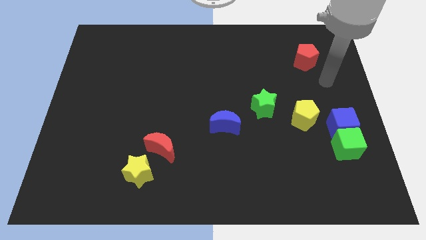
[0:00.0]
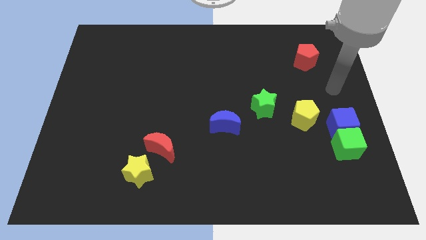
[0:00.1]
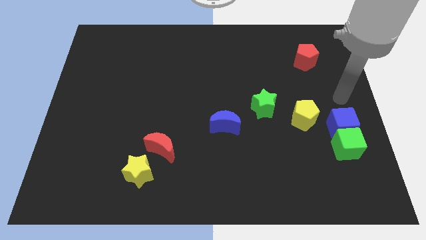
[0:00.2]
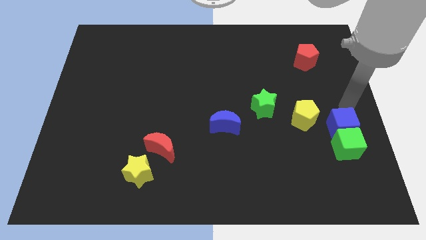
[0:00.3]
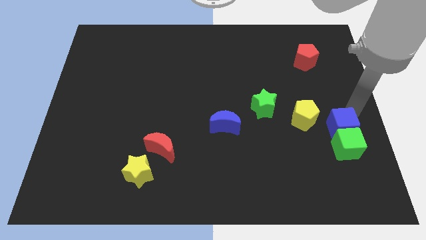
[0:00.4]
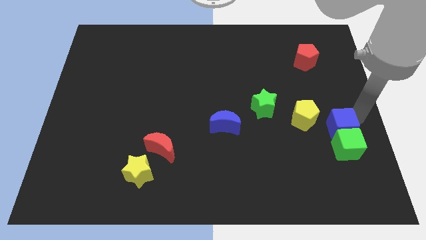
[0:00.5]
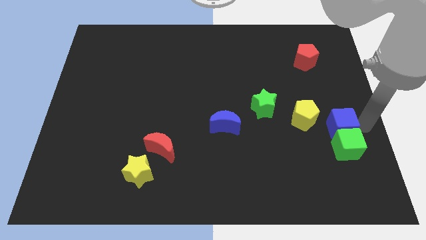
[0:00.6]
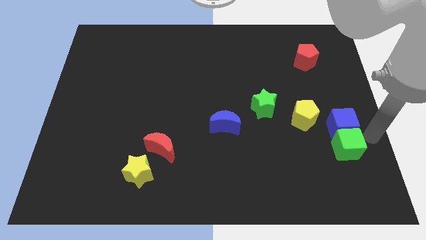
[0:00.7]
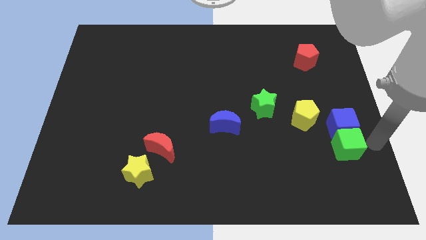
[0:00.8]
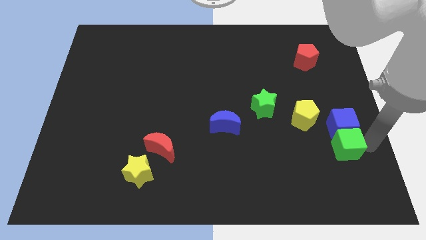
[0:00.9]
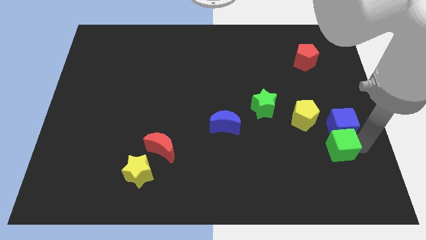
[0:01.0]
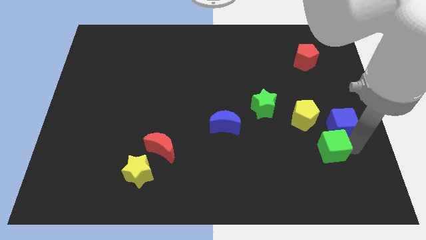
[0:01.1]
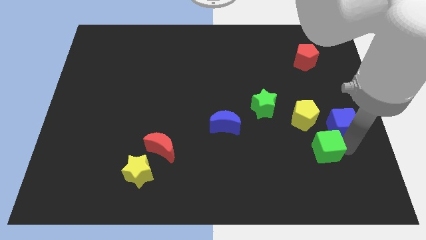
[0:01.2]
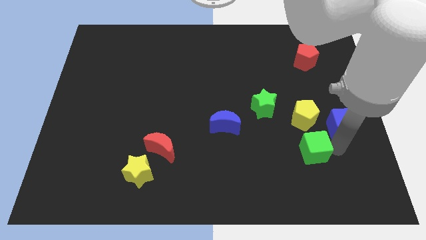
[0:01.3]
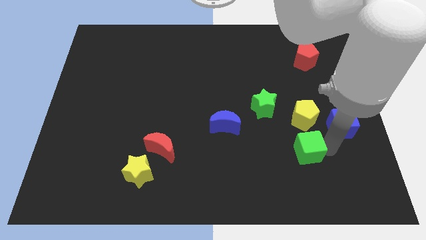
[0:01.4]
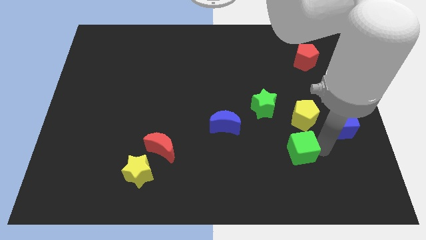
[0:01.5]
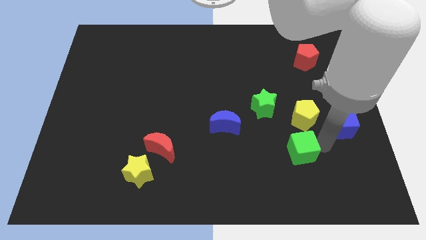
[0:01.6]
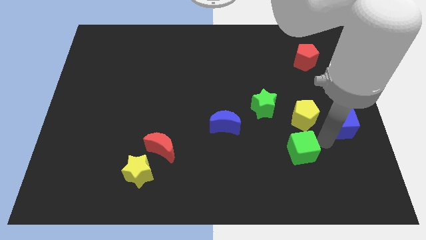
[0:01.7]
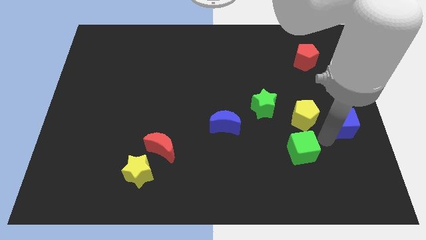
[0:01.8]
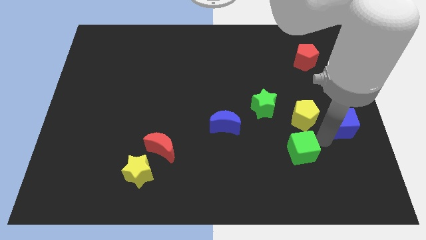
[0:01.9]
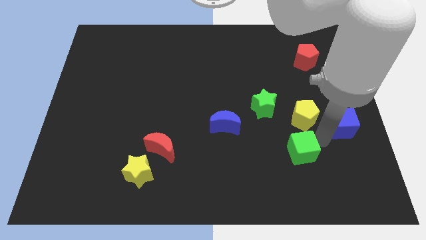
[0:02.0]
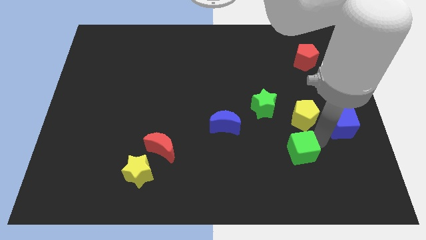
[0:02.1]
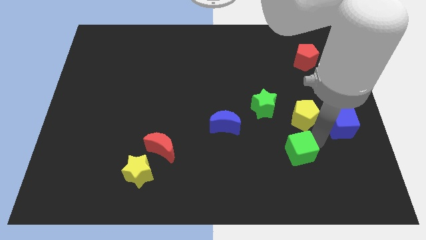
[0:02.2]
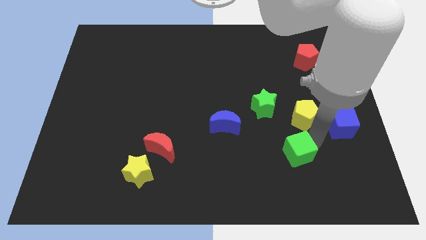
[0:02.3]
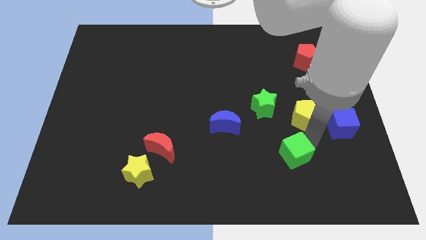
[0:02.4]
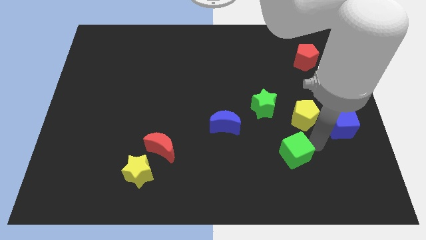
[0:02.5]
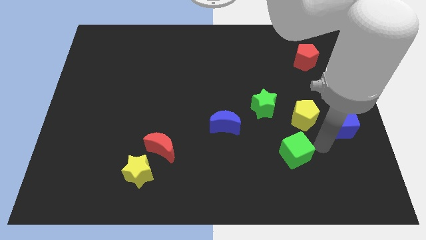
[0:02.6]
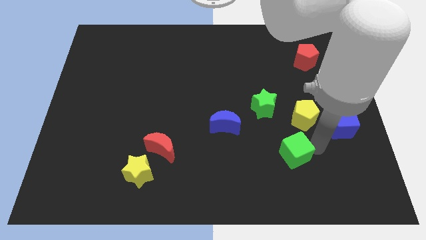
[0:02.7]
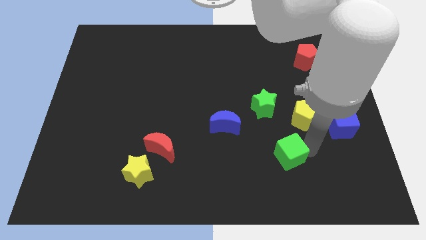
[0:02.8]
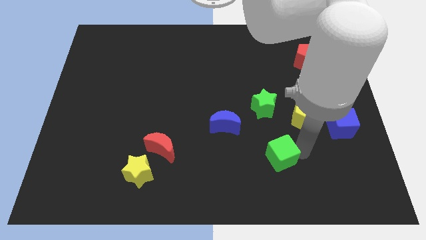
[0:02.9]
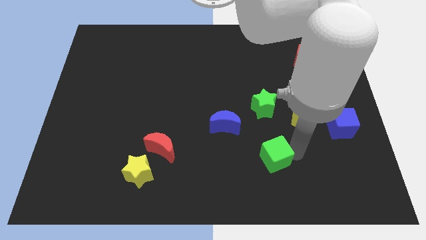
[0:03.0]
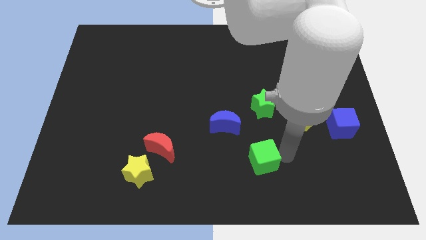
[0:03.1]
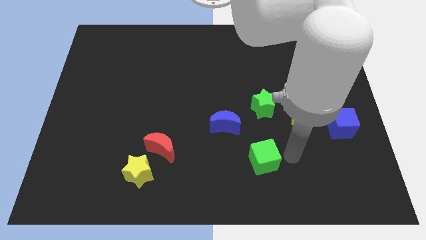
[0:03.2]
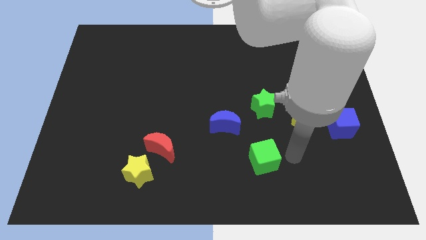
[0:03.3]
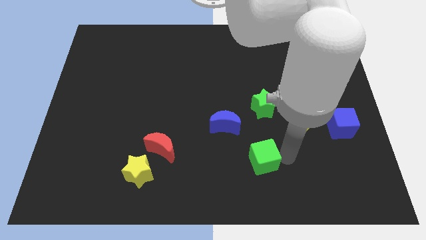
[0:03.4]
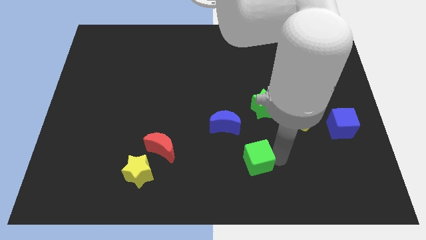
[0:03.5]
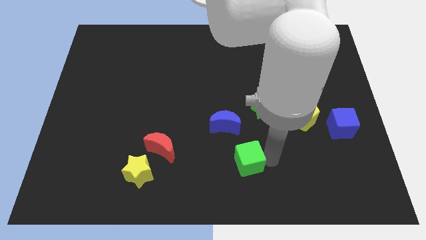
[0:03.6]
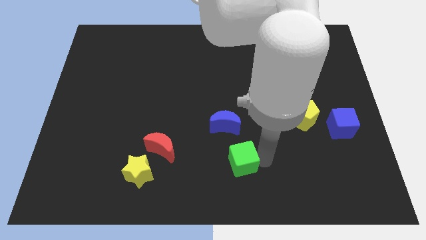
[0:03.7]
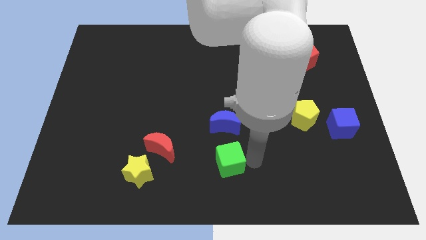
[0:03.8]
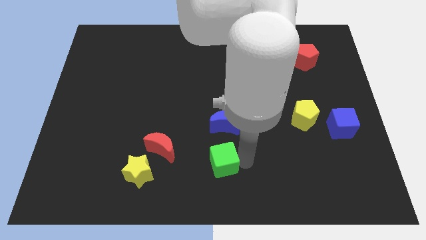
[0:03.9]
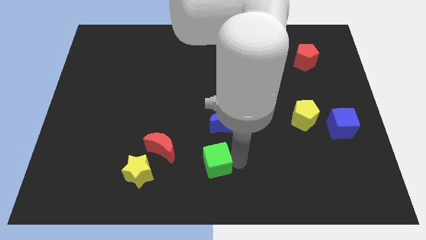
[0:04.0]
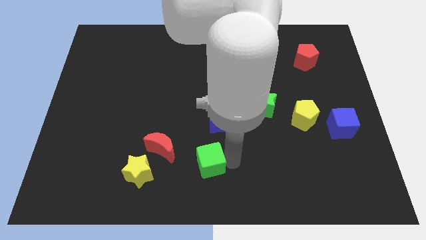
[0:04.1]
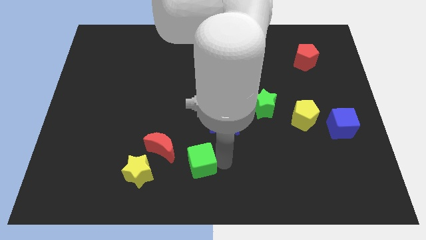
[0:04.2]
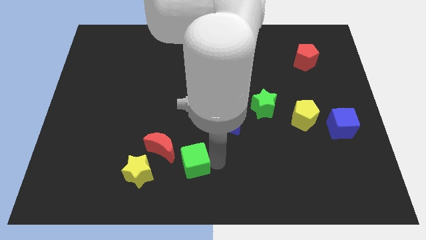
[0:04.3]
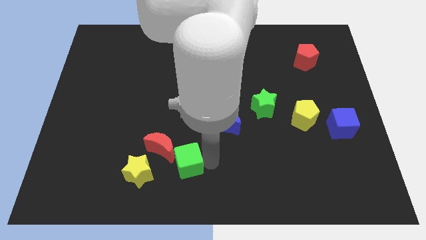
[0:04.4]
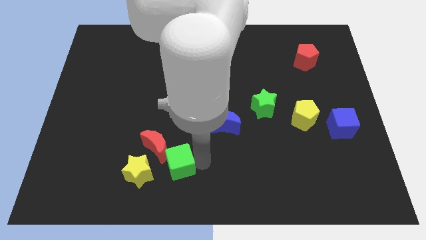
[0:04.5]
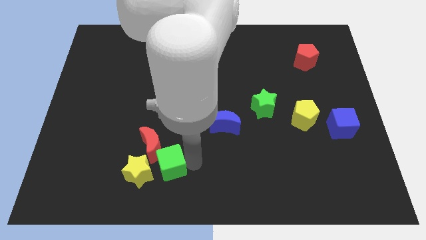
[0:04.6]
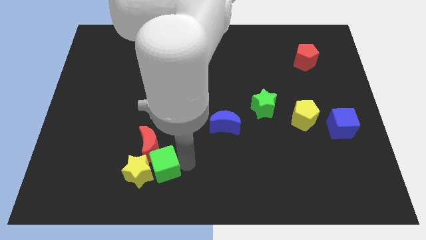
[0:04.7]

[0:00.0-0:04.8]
move the green cube close to the yellow star

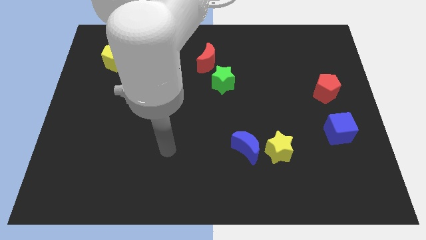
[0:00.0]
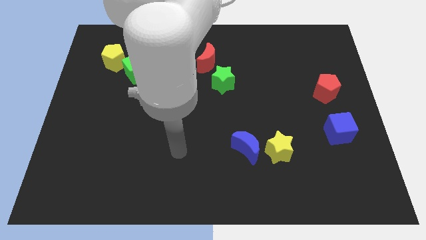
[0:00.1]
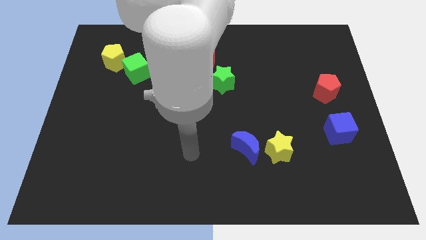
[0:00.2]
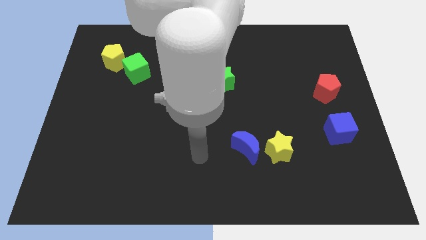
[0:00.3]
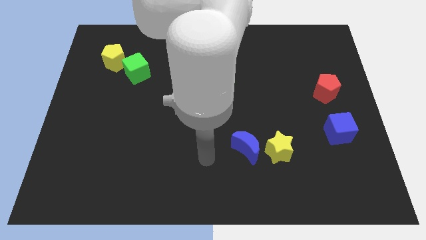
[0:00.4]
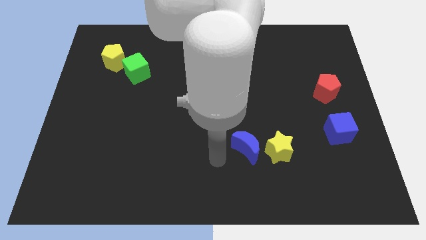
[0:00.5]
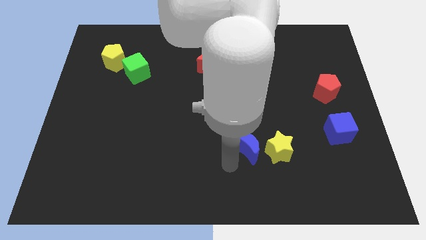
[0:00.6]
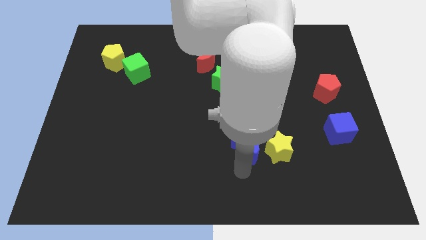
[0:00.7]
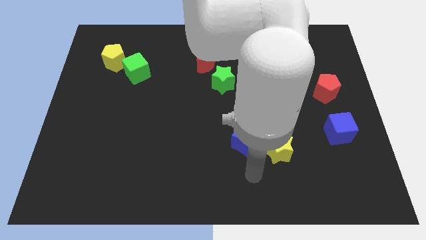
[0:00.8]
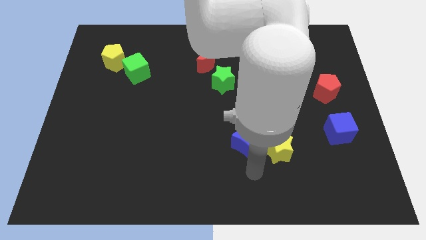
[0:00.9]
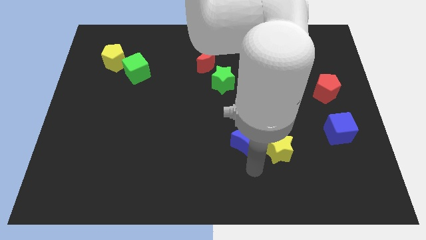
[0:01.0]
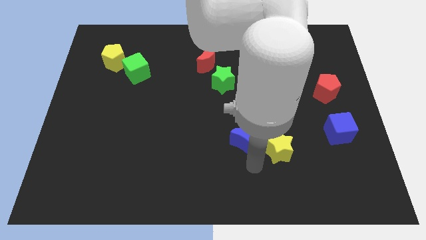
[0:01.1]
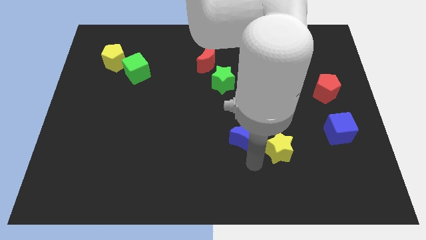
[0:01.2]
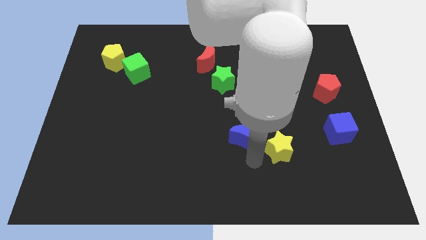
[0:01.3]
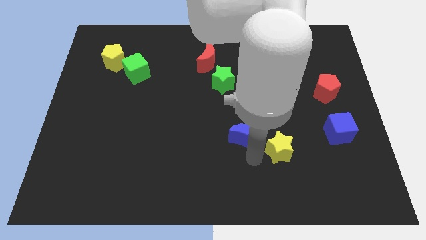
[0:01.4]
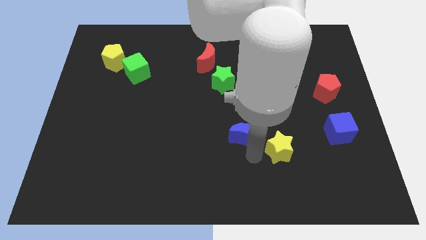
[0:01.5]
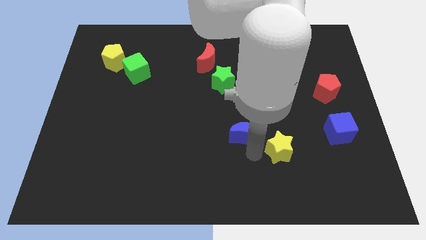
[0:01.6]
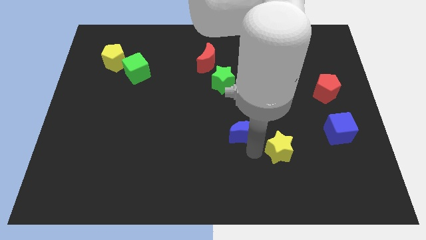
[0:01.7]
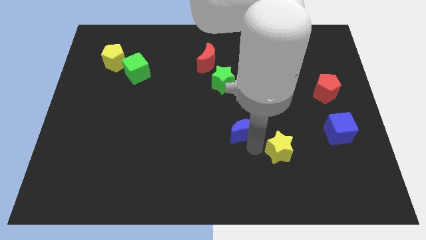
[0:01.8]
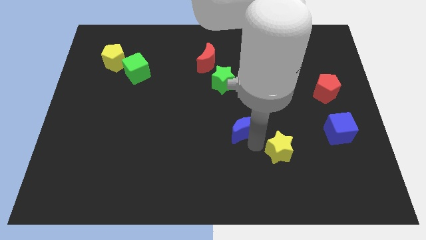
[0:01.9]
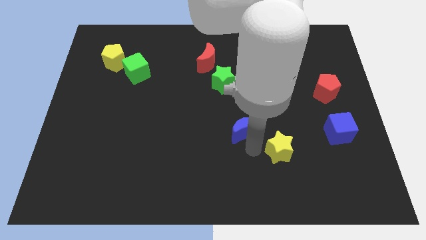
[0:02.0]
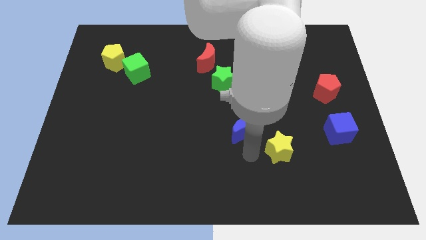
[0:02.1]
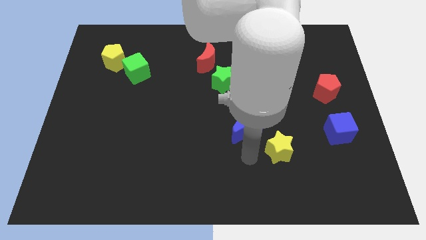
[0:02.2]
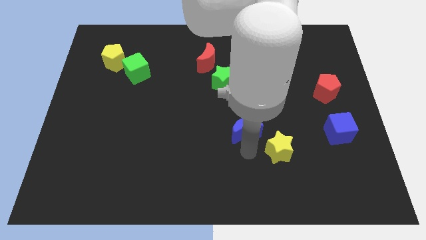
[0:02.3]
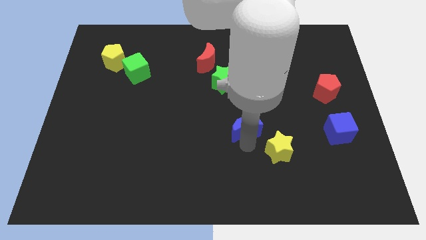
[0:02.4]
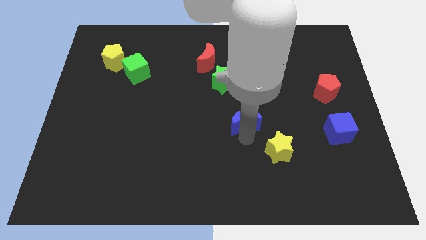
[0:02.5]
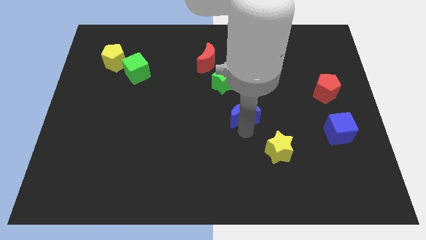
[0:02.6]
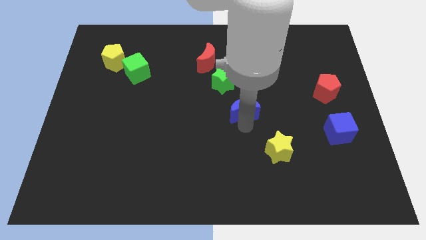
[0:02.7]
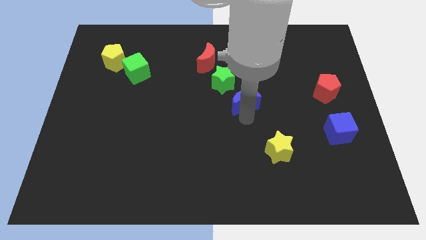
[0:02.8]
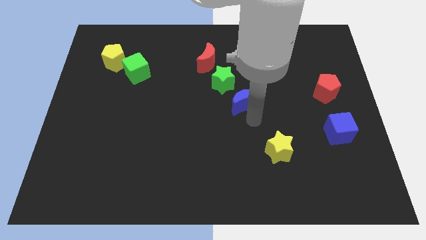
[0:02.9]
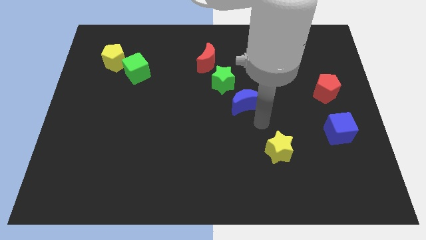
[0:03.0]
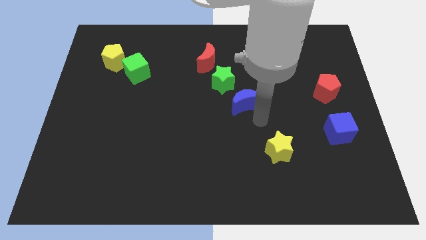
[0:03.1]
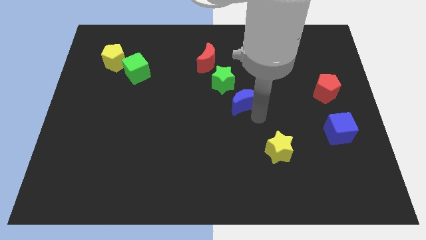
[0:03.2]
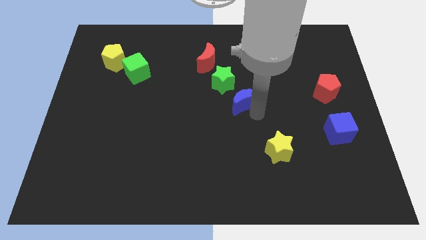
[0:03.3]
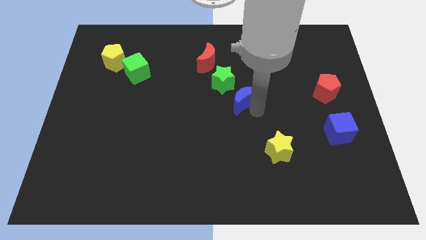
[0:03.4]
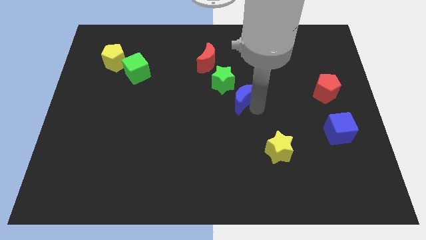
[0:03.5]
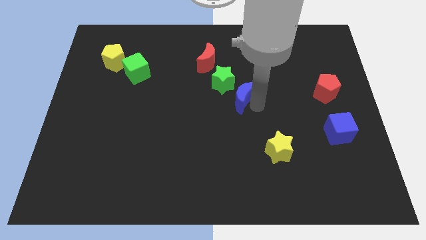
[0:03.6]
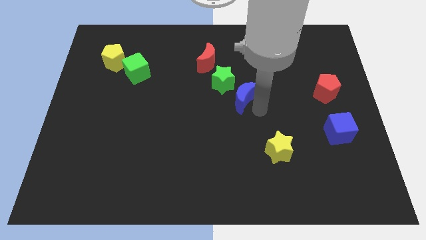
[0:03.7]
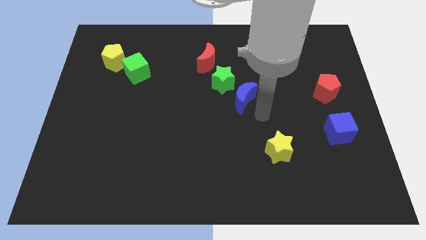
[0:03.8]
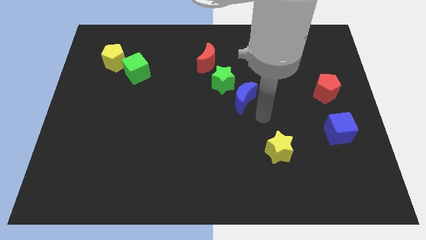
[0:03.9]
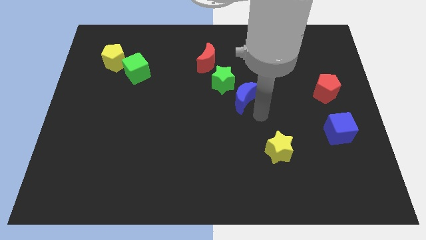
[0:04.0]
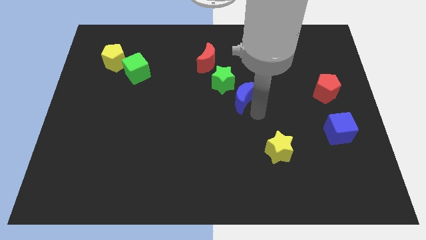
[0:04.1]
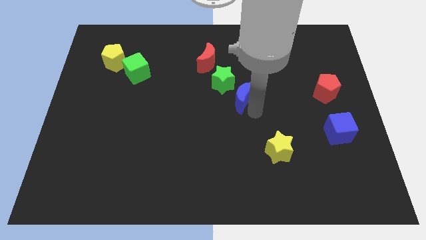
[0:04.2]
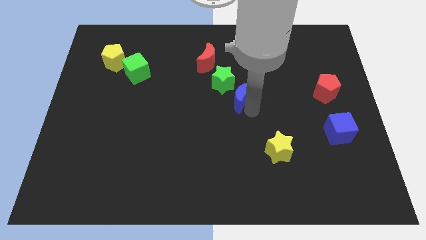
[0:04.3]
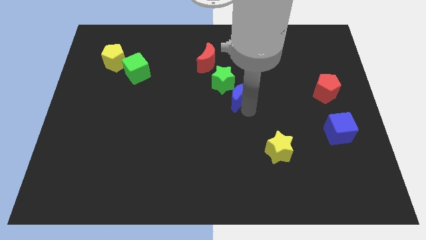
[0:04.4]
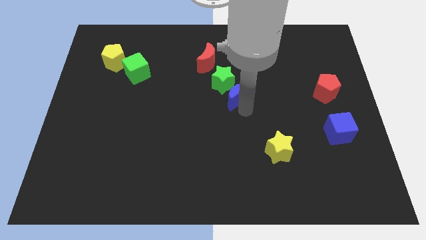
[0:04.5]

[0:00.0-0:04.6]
put the blue moon towards the green star
